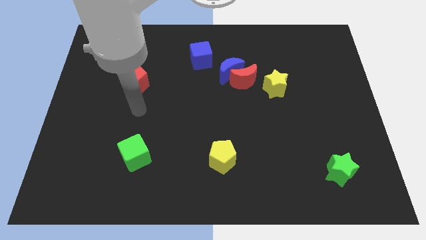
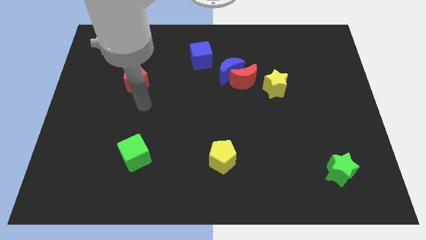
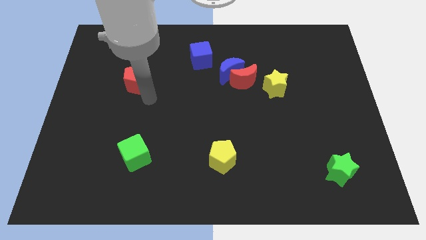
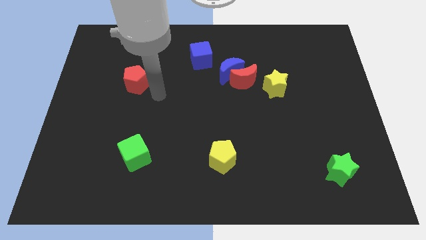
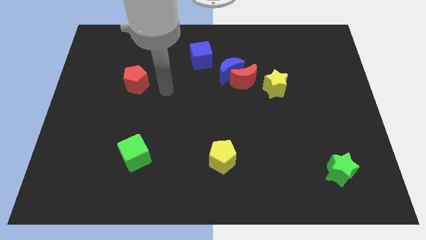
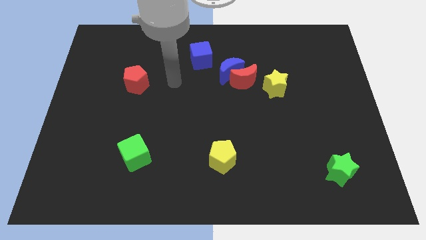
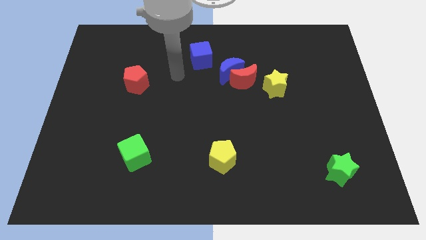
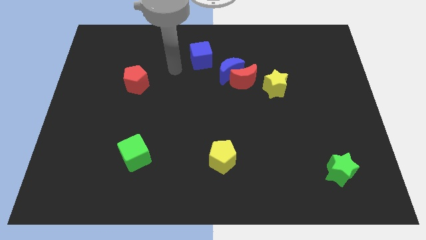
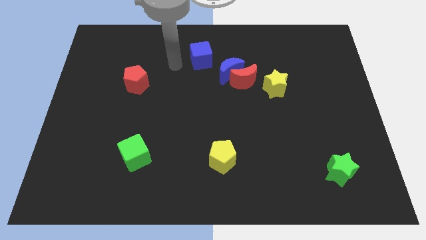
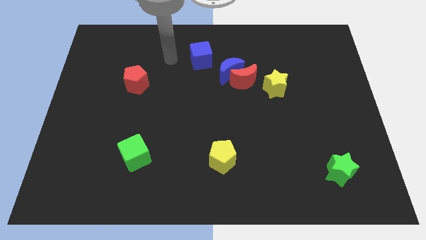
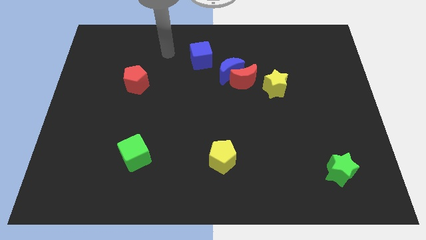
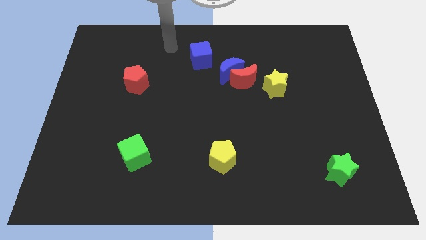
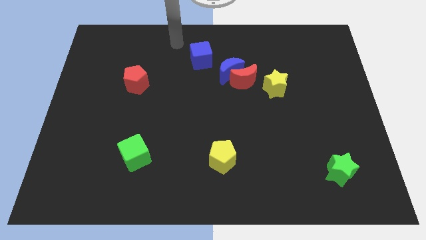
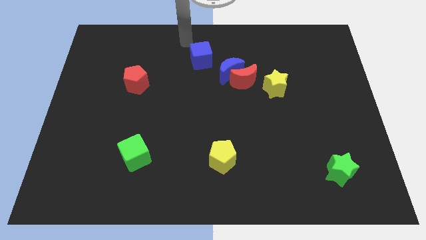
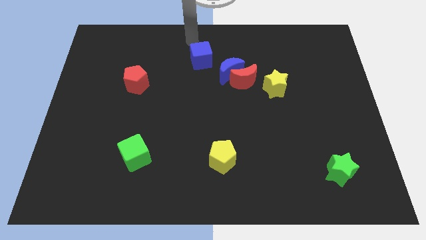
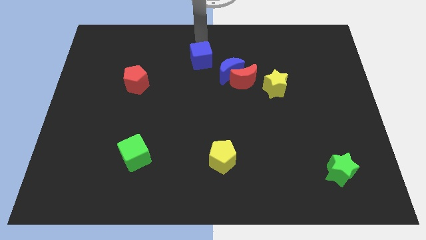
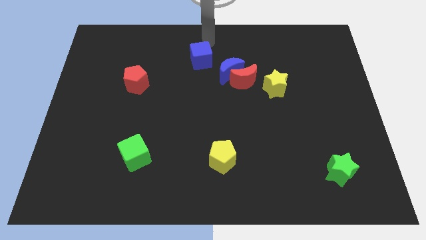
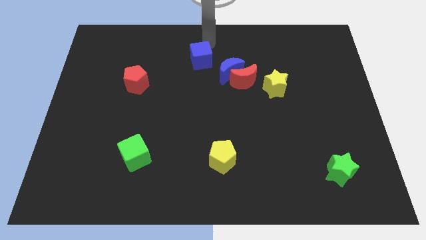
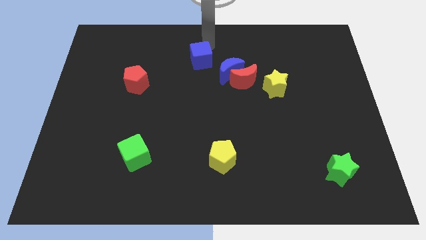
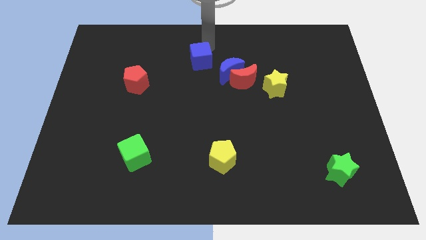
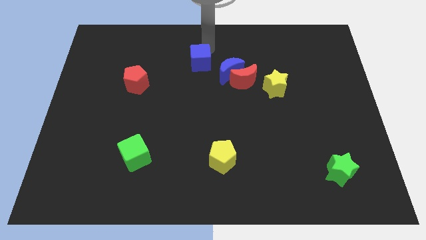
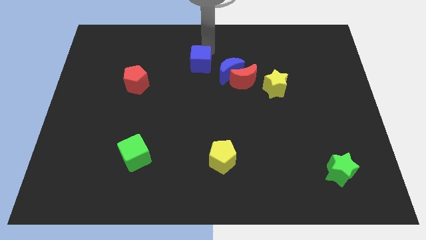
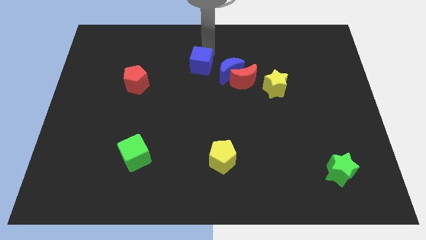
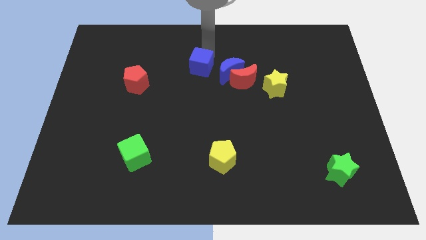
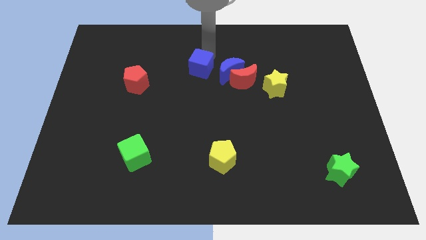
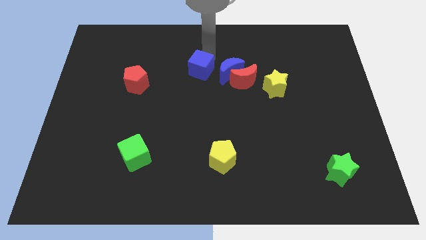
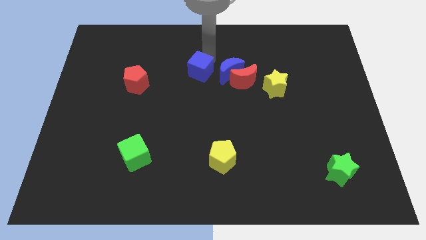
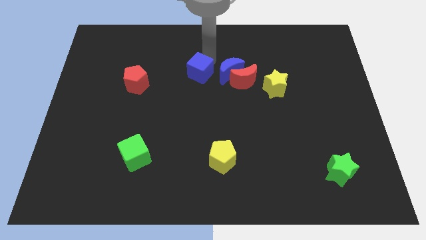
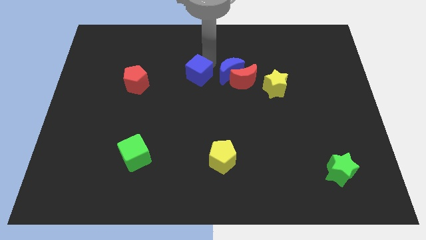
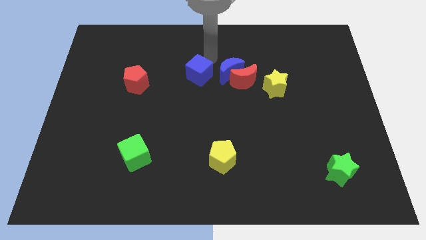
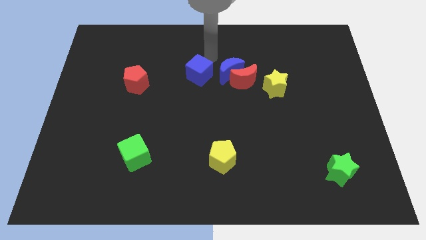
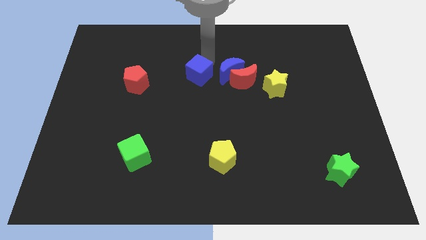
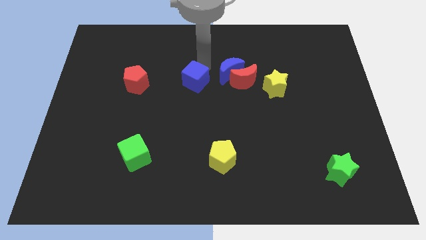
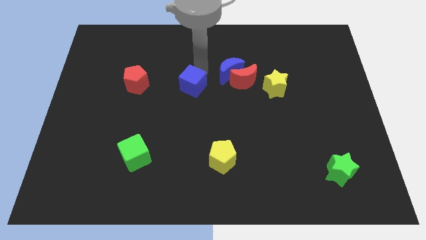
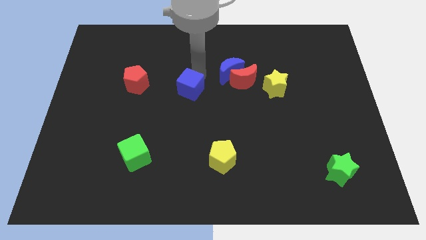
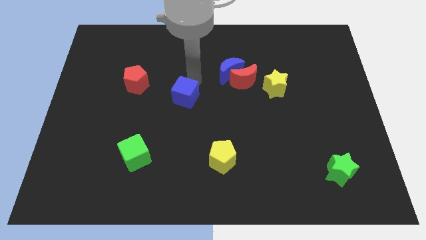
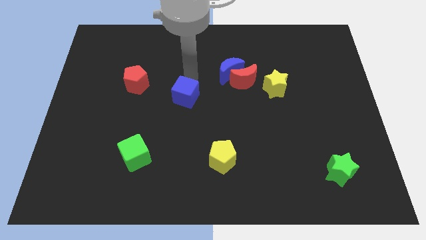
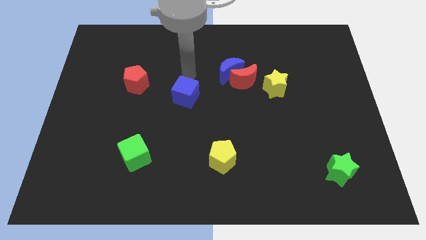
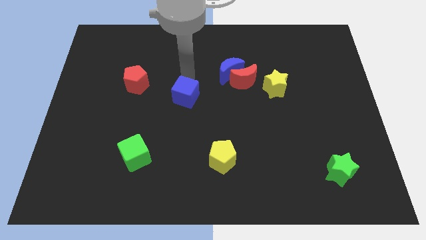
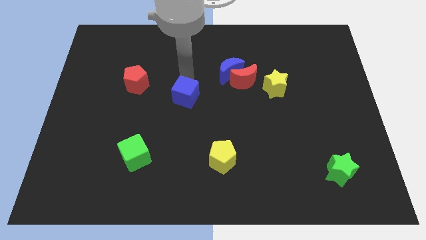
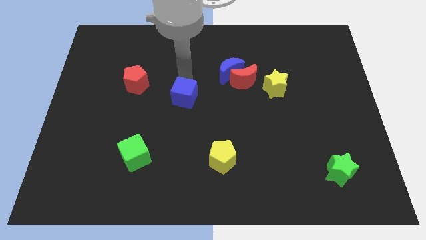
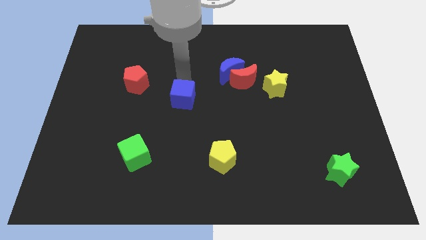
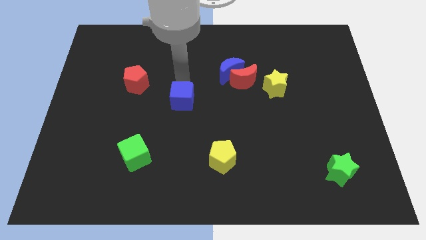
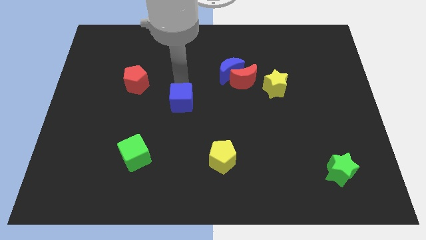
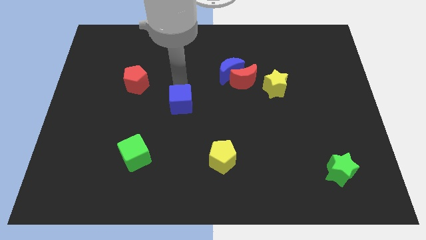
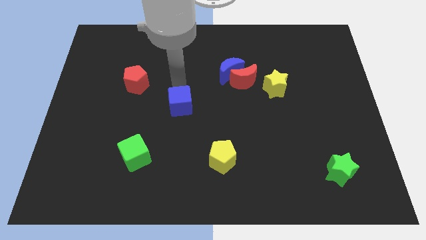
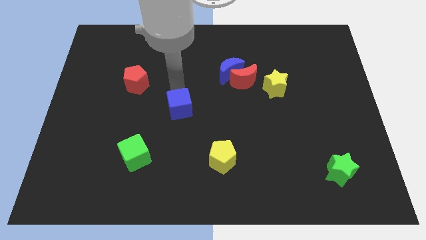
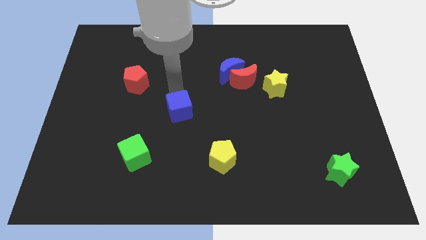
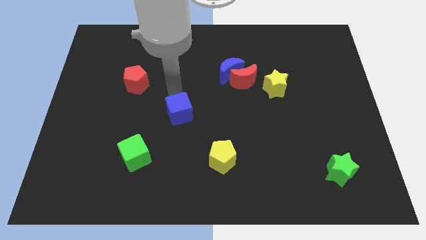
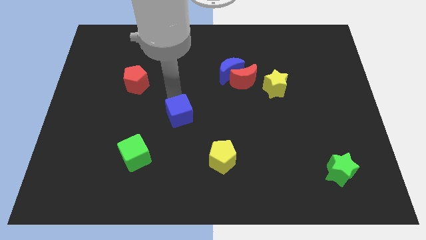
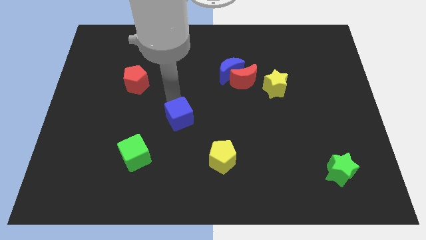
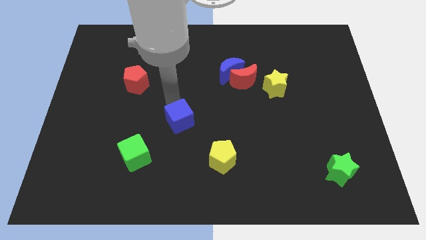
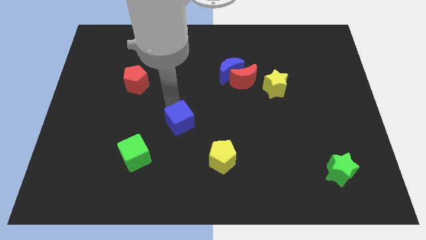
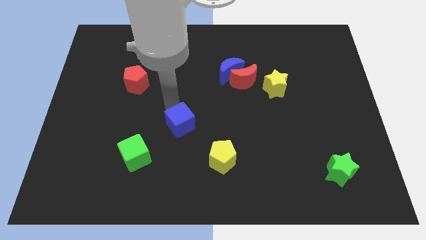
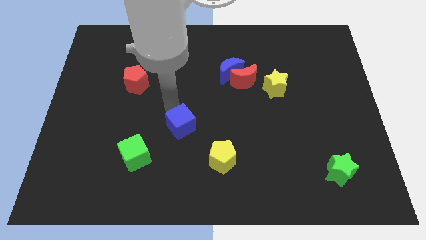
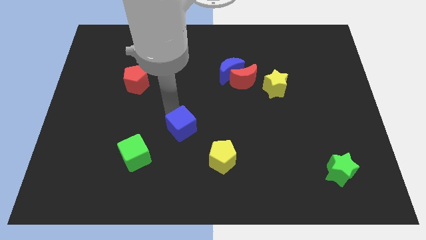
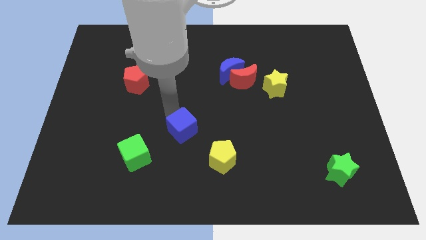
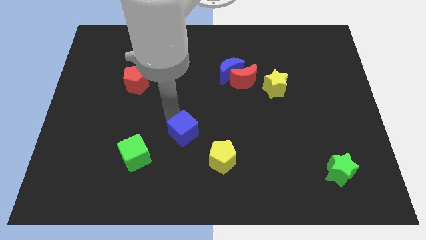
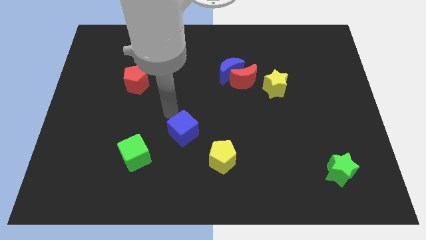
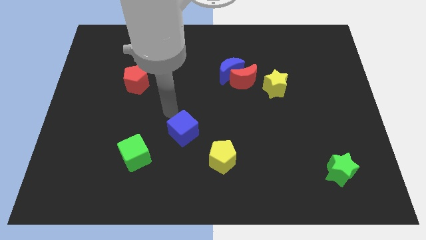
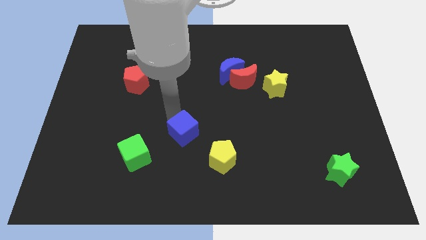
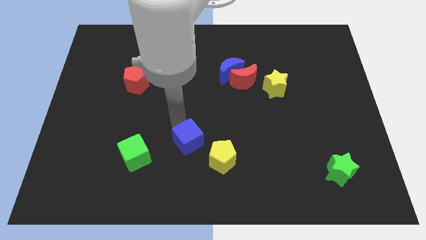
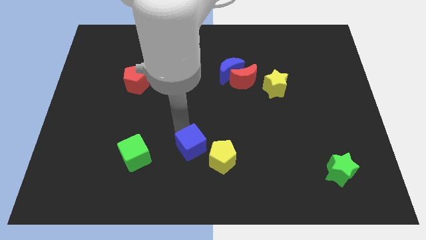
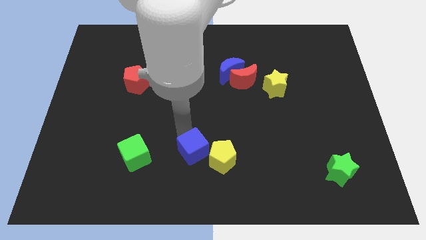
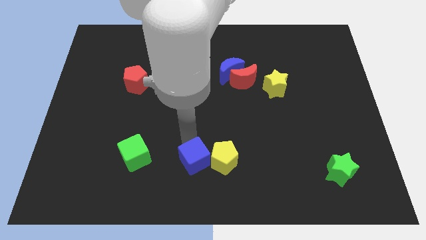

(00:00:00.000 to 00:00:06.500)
slide the blue cube to the bottom
